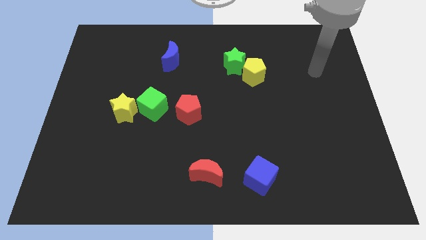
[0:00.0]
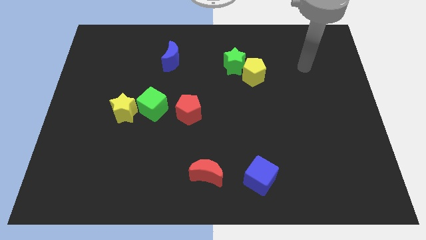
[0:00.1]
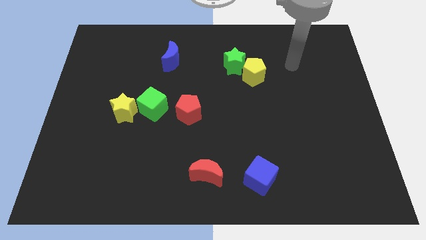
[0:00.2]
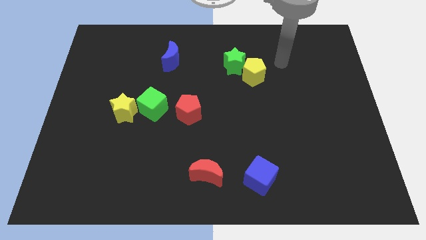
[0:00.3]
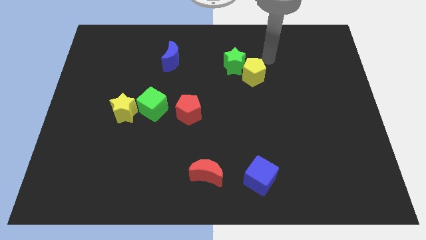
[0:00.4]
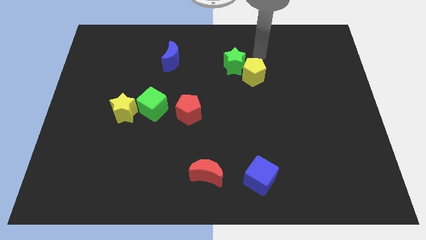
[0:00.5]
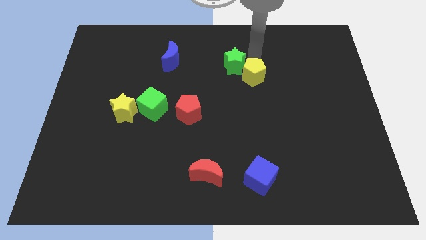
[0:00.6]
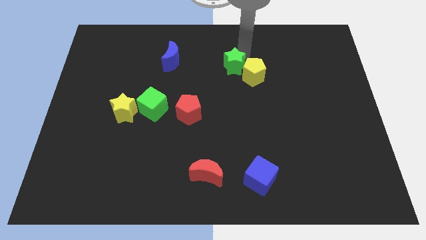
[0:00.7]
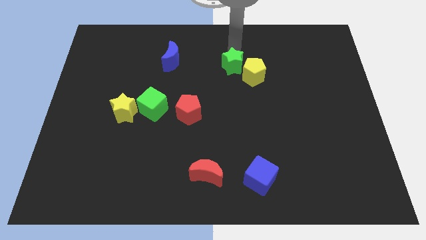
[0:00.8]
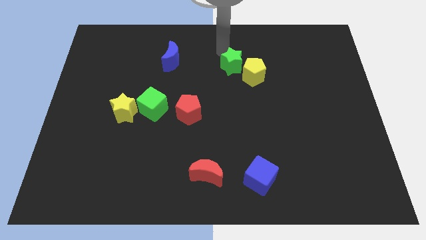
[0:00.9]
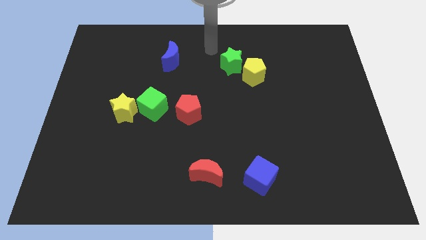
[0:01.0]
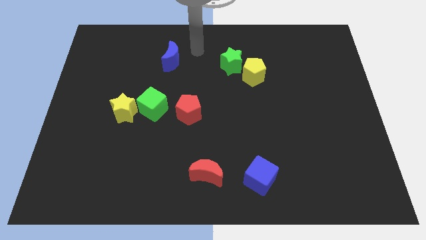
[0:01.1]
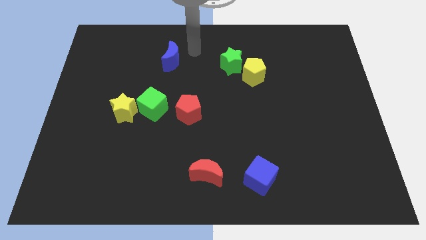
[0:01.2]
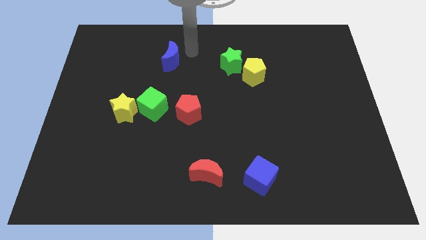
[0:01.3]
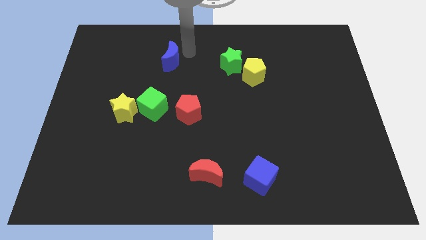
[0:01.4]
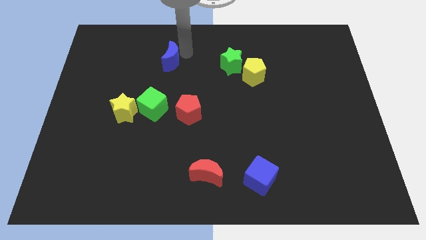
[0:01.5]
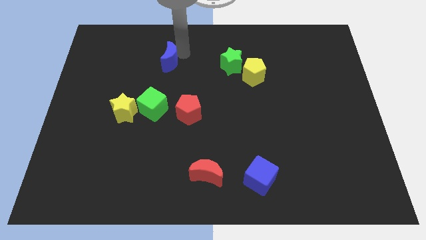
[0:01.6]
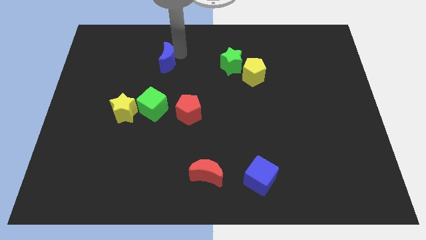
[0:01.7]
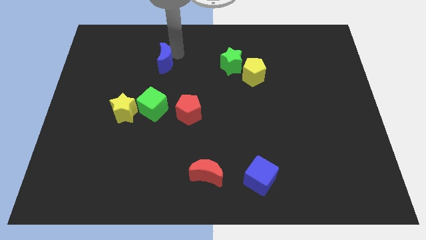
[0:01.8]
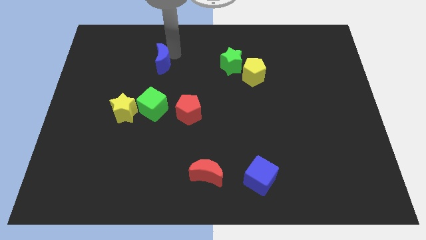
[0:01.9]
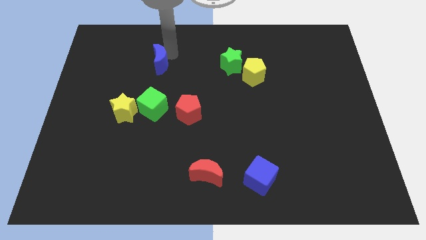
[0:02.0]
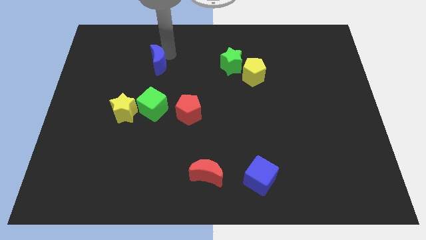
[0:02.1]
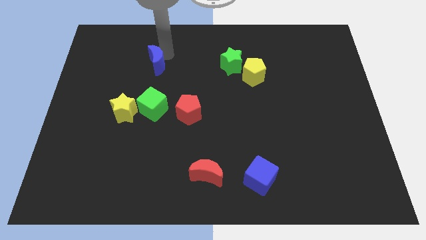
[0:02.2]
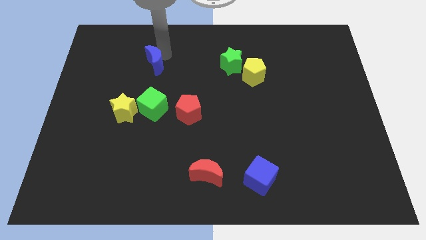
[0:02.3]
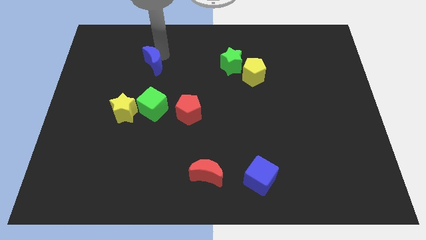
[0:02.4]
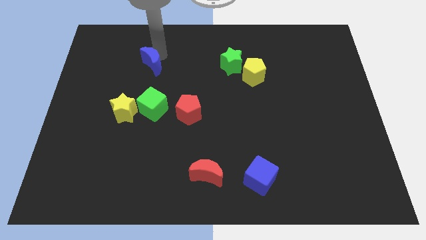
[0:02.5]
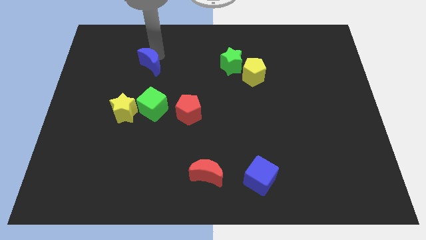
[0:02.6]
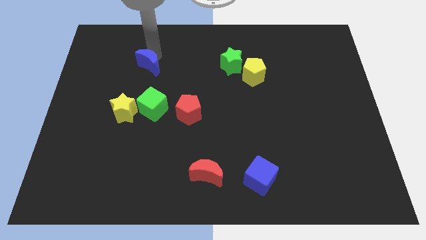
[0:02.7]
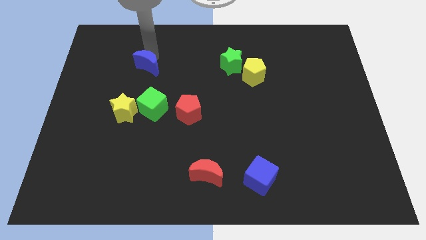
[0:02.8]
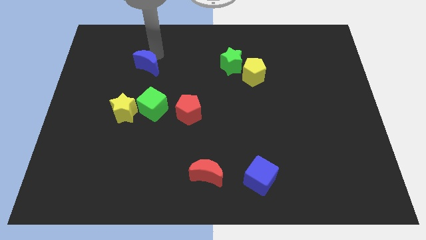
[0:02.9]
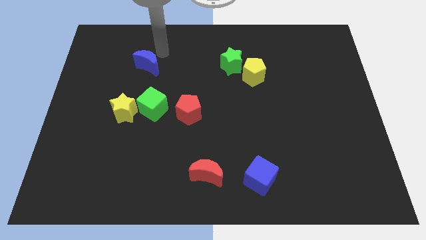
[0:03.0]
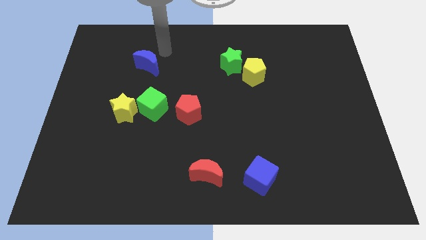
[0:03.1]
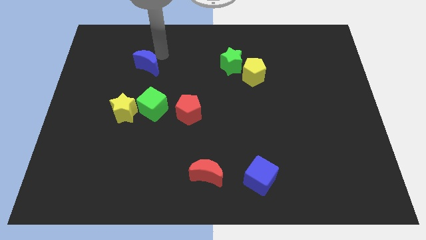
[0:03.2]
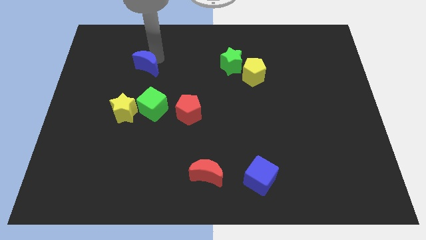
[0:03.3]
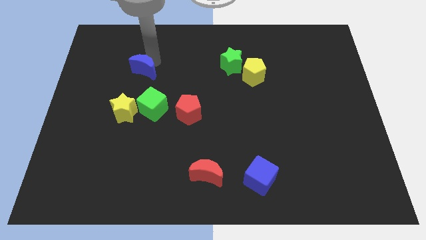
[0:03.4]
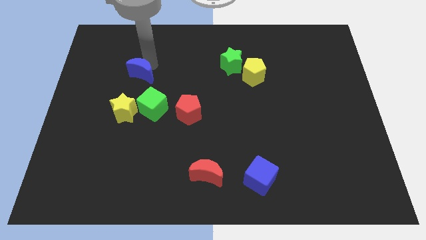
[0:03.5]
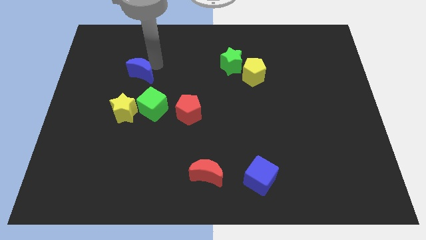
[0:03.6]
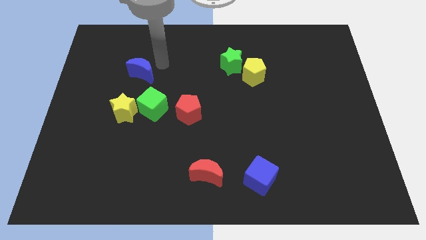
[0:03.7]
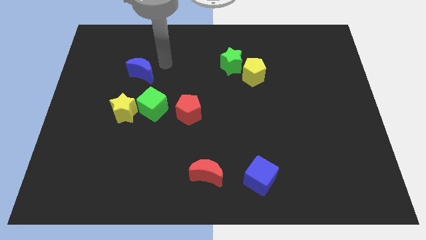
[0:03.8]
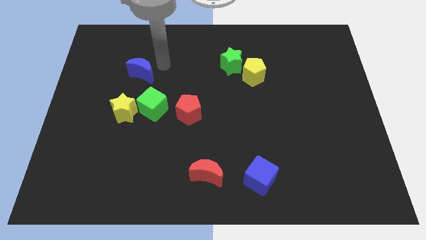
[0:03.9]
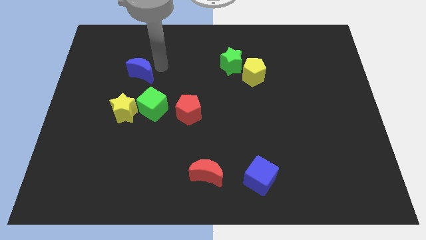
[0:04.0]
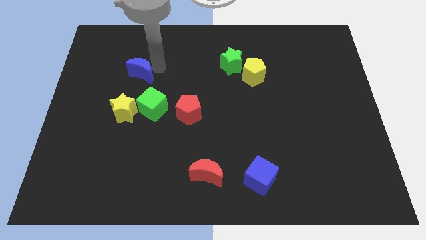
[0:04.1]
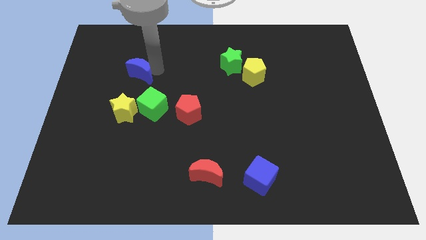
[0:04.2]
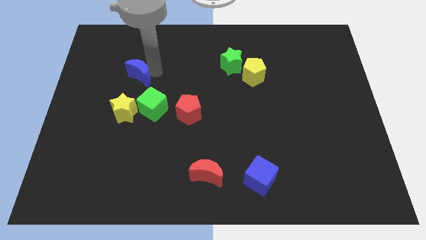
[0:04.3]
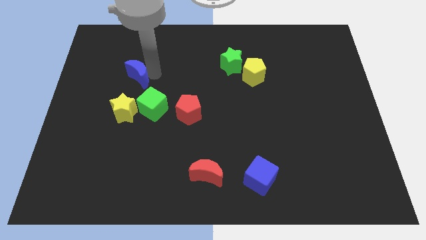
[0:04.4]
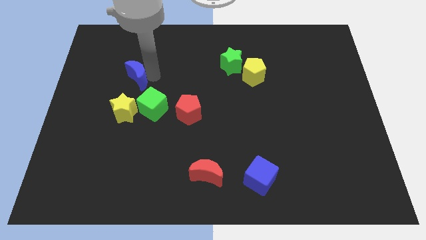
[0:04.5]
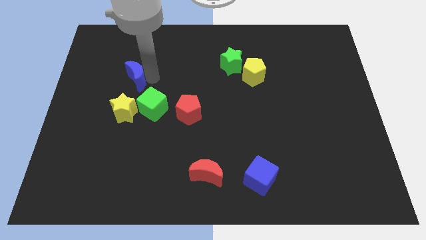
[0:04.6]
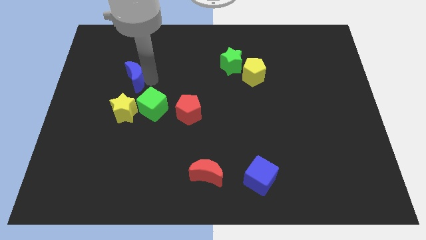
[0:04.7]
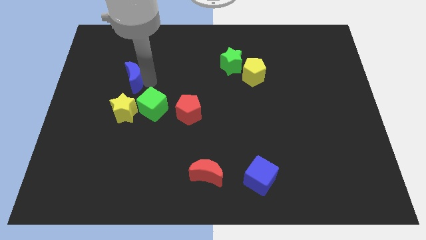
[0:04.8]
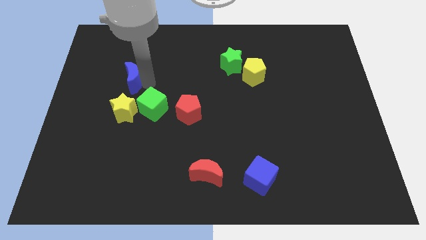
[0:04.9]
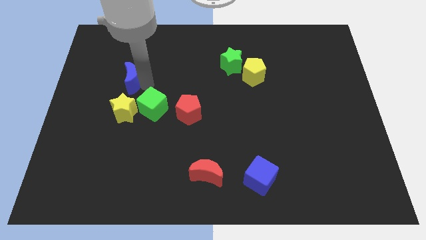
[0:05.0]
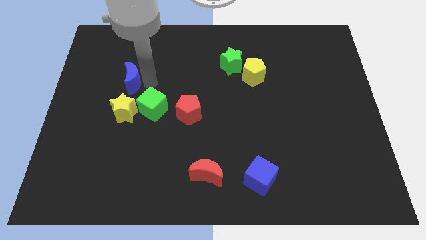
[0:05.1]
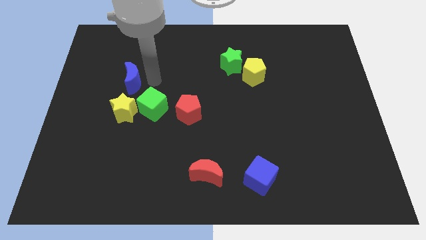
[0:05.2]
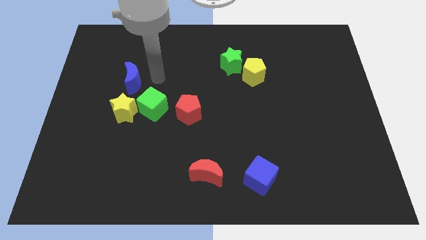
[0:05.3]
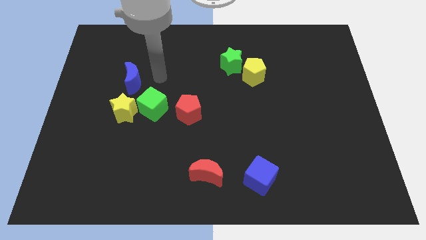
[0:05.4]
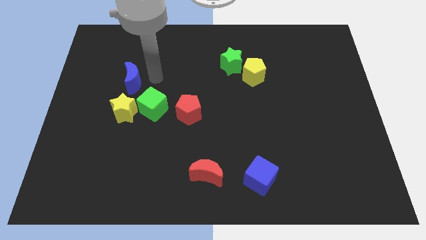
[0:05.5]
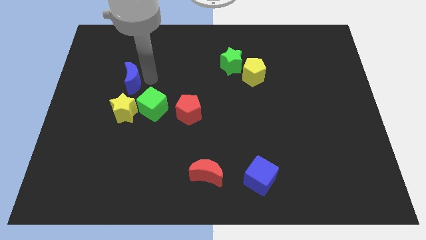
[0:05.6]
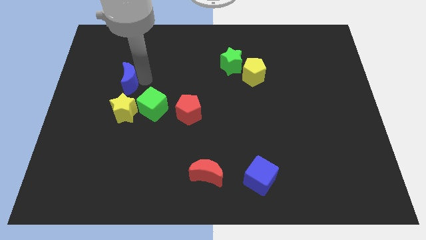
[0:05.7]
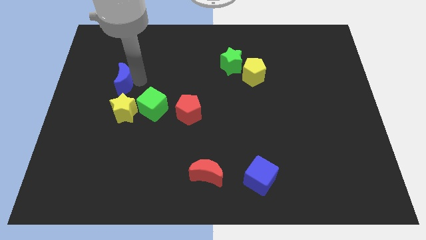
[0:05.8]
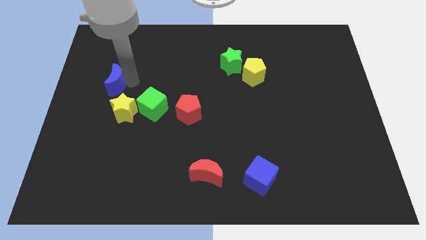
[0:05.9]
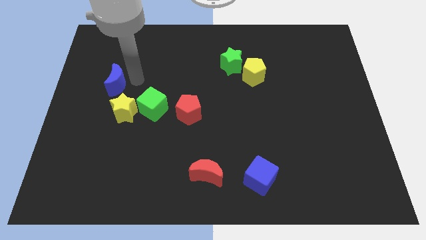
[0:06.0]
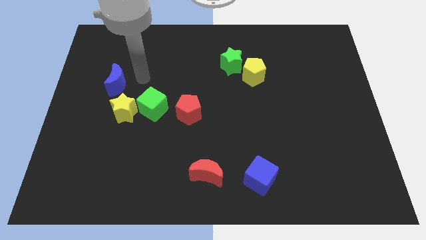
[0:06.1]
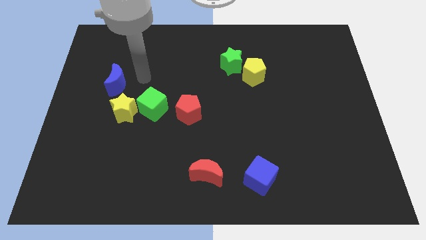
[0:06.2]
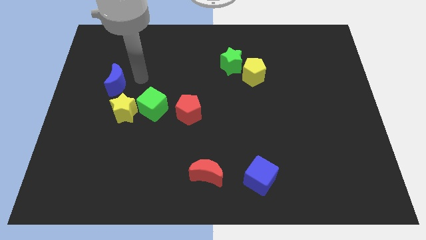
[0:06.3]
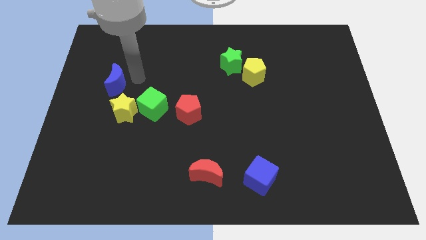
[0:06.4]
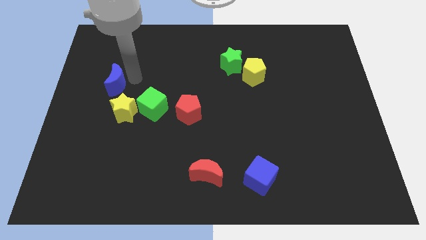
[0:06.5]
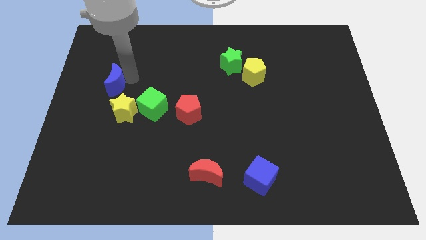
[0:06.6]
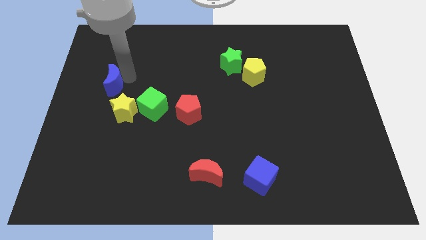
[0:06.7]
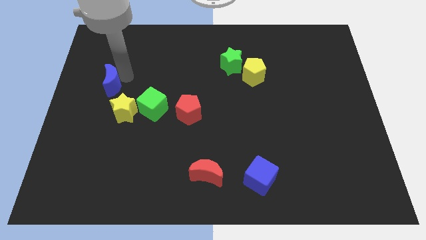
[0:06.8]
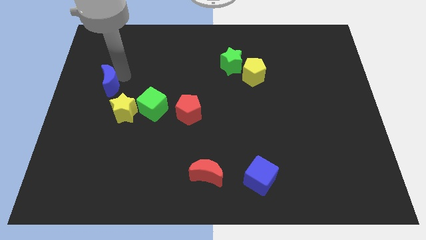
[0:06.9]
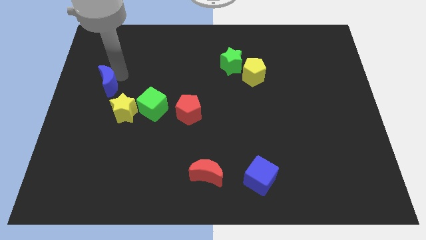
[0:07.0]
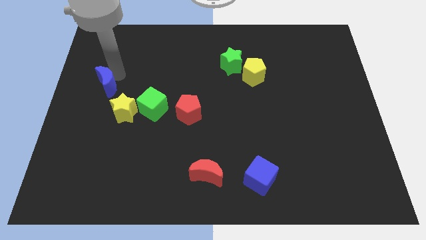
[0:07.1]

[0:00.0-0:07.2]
slide the blue moon to the left side of the board
